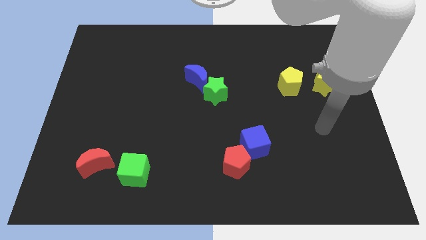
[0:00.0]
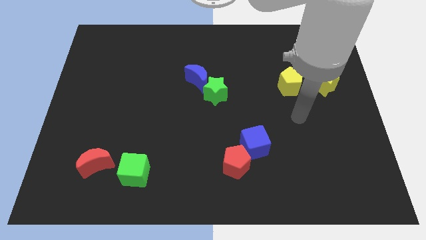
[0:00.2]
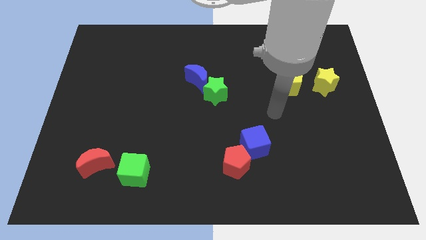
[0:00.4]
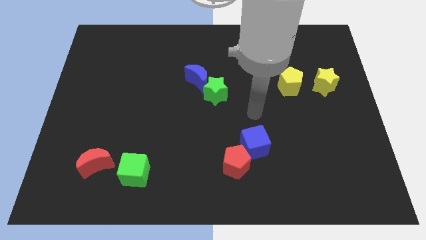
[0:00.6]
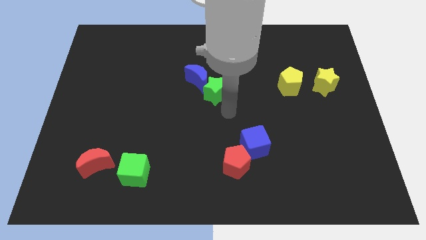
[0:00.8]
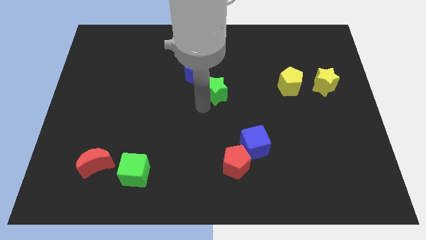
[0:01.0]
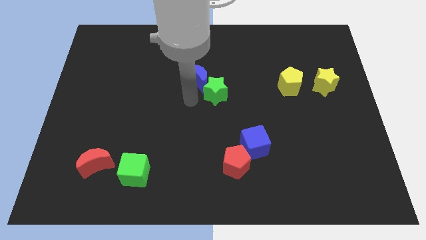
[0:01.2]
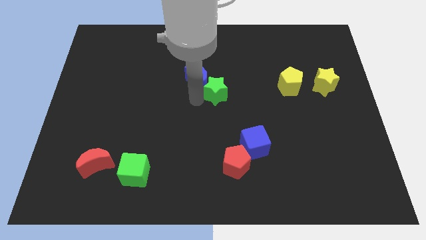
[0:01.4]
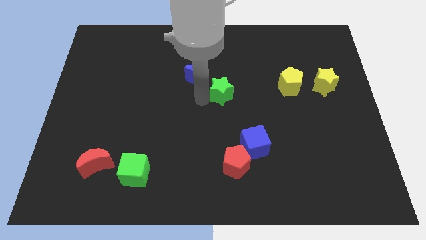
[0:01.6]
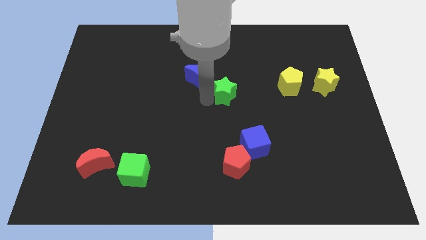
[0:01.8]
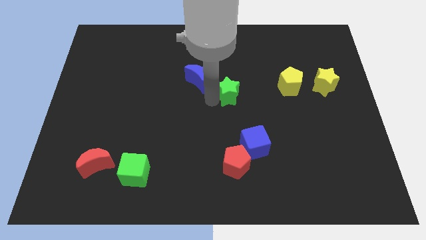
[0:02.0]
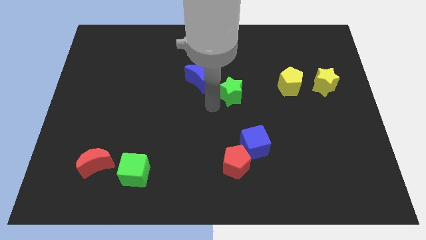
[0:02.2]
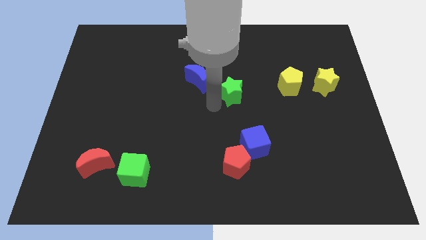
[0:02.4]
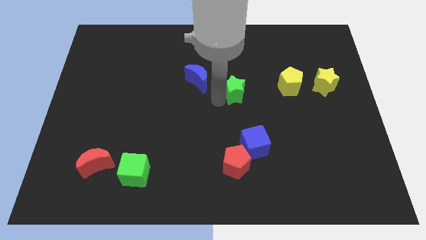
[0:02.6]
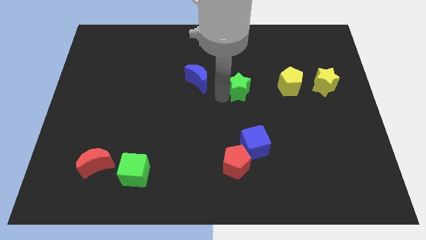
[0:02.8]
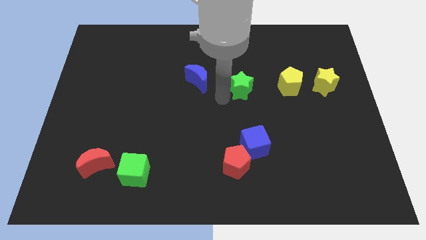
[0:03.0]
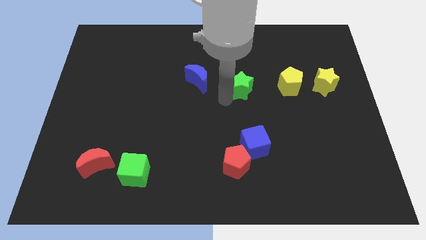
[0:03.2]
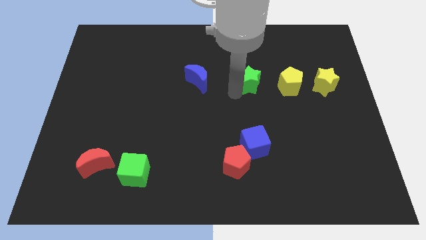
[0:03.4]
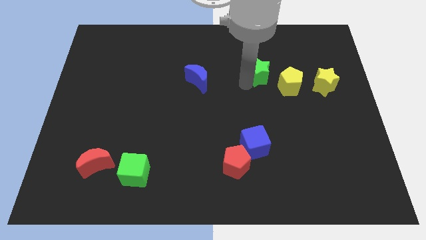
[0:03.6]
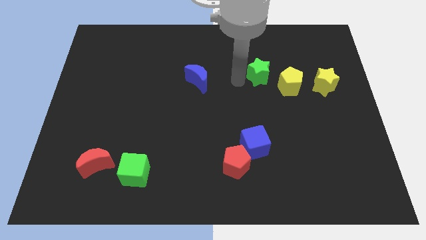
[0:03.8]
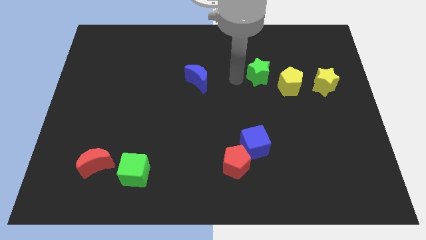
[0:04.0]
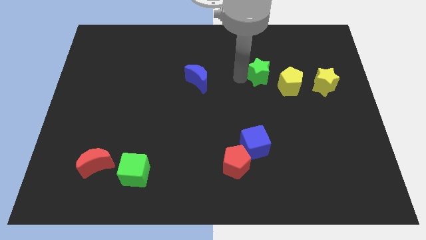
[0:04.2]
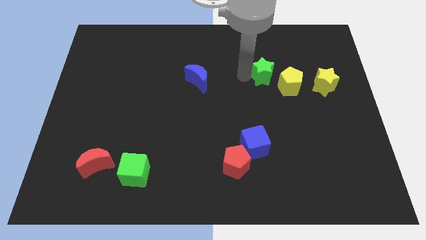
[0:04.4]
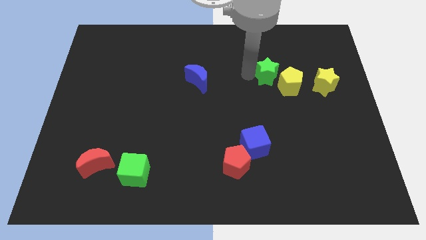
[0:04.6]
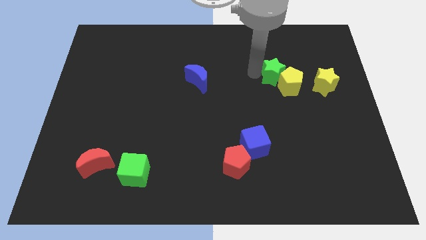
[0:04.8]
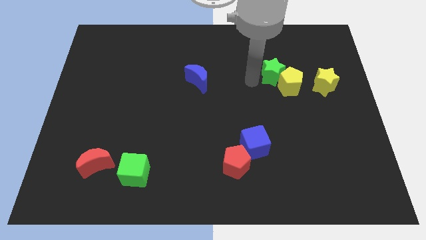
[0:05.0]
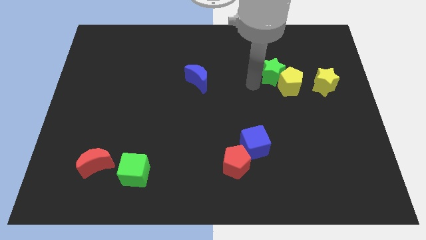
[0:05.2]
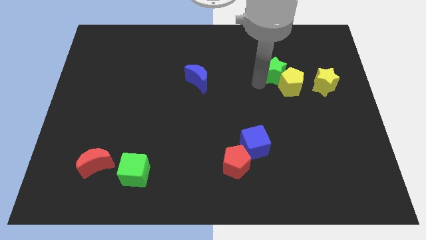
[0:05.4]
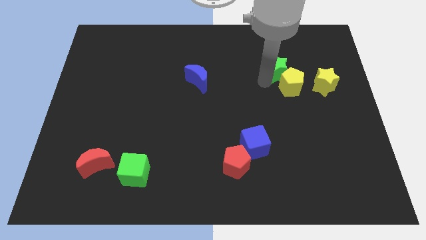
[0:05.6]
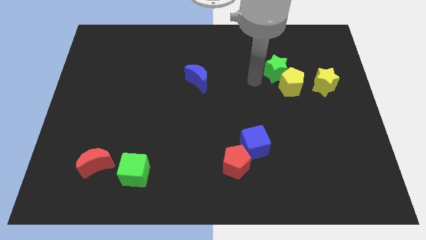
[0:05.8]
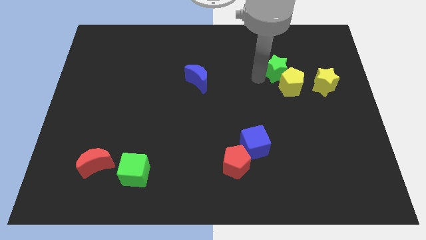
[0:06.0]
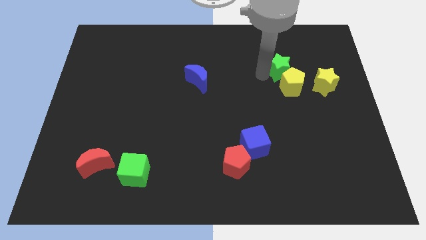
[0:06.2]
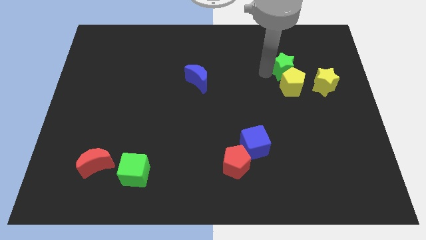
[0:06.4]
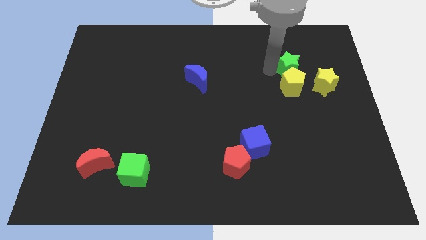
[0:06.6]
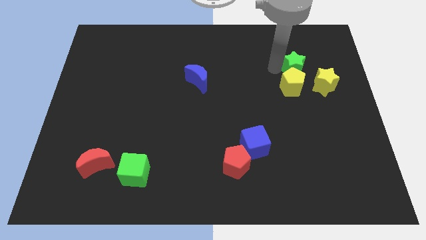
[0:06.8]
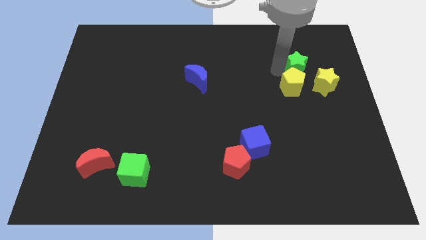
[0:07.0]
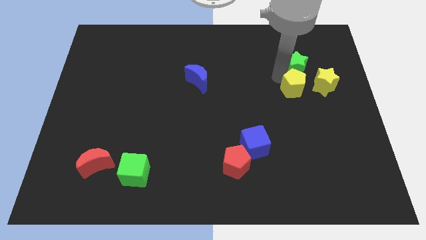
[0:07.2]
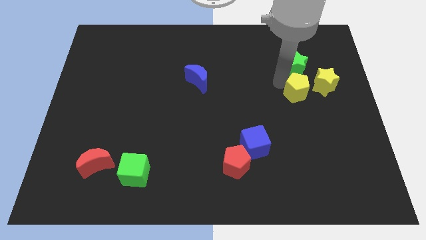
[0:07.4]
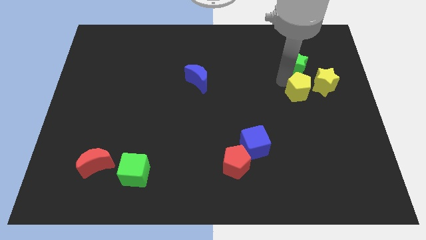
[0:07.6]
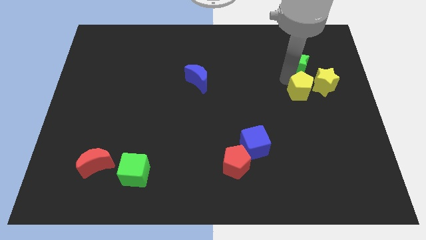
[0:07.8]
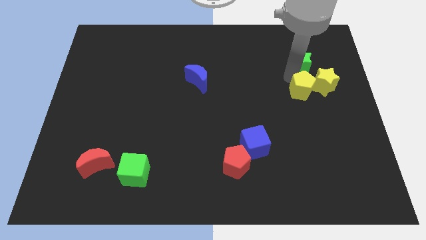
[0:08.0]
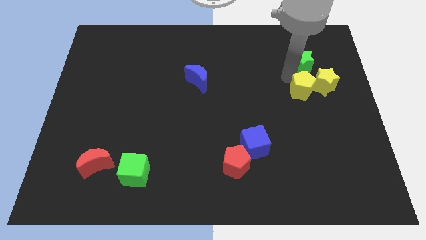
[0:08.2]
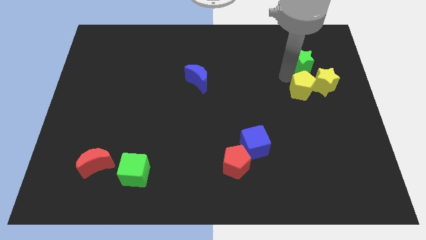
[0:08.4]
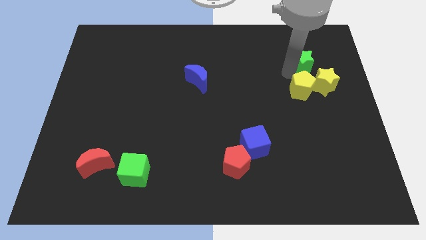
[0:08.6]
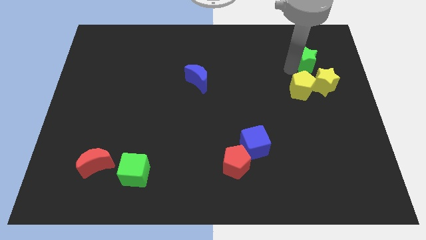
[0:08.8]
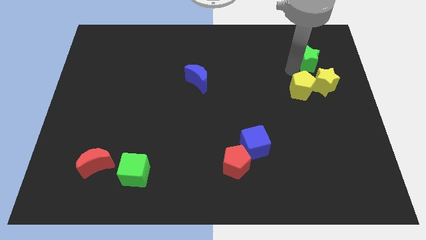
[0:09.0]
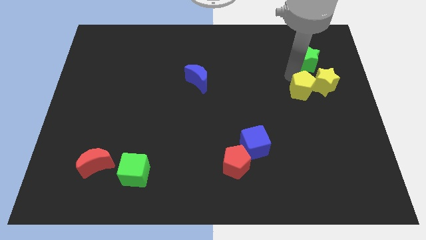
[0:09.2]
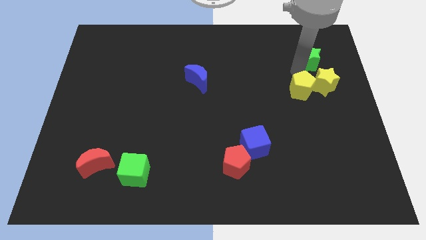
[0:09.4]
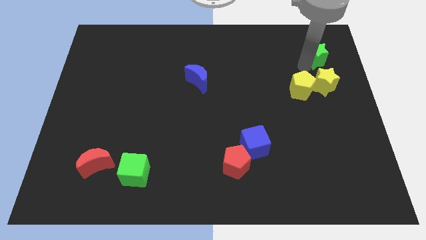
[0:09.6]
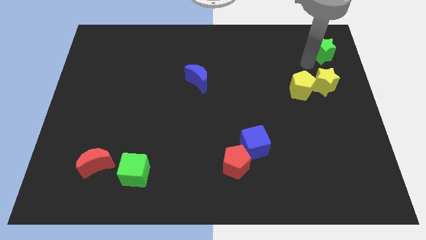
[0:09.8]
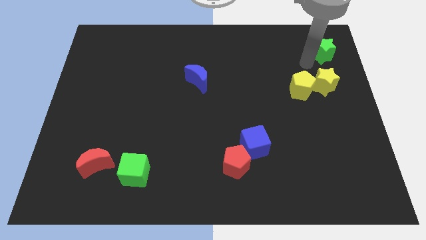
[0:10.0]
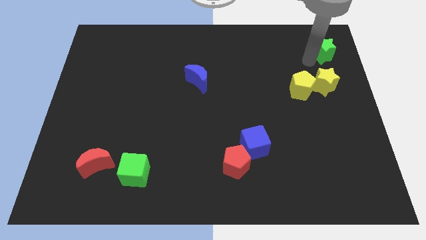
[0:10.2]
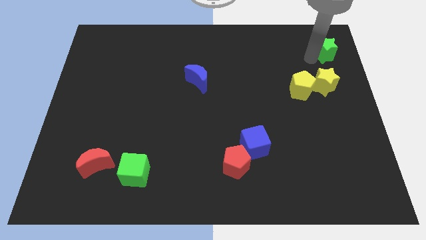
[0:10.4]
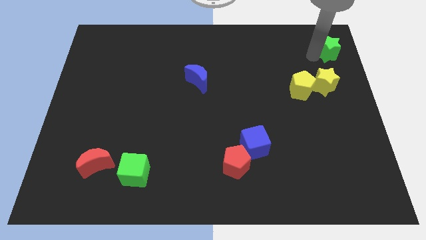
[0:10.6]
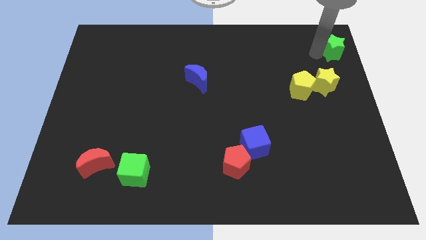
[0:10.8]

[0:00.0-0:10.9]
move the green star to the top right corner
